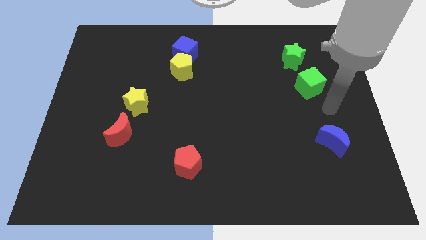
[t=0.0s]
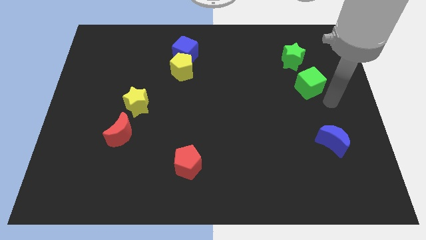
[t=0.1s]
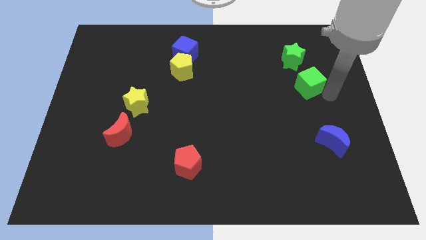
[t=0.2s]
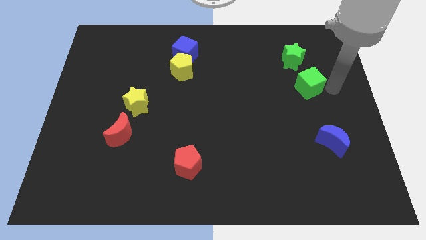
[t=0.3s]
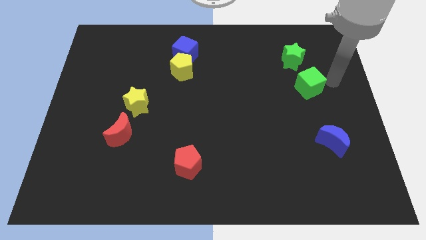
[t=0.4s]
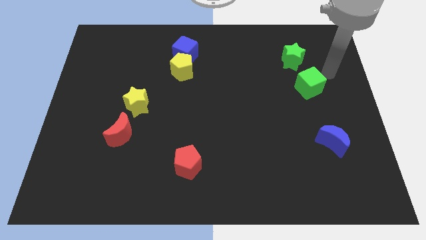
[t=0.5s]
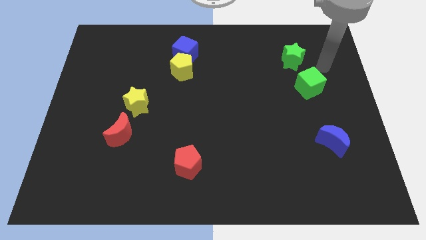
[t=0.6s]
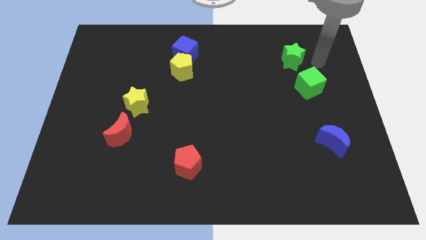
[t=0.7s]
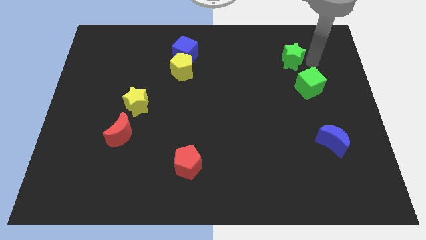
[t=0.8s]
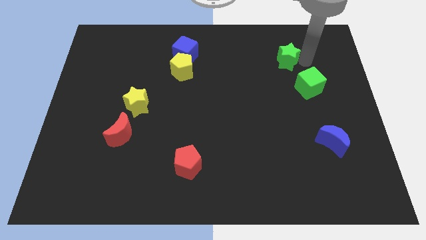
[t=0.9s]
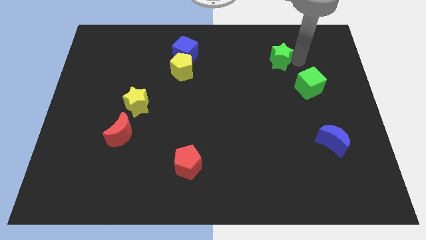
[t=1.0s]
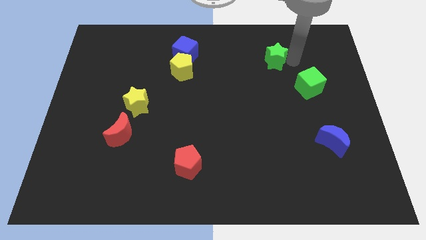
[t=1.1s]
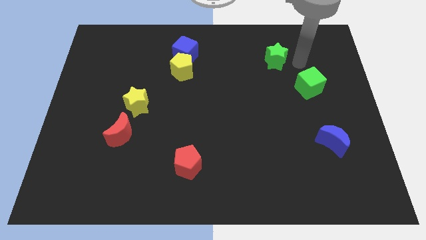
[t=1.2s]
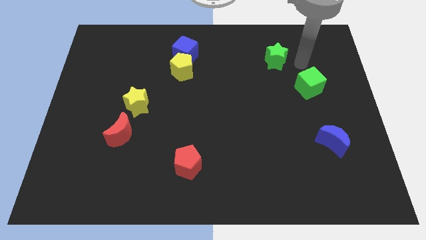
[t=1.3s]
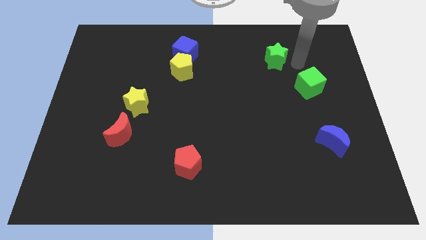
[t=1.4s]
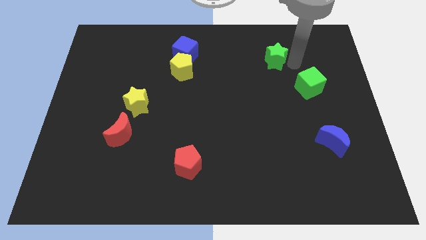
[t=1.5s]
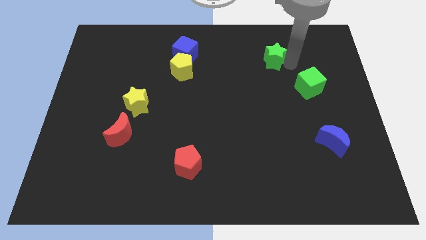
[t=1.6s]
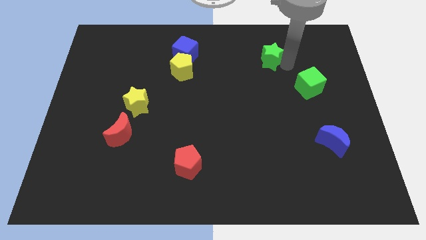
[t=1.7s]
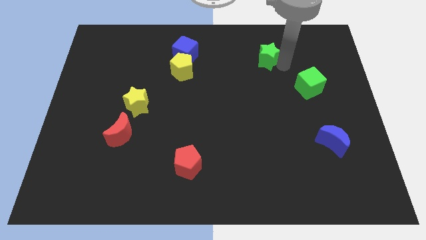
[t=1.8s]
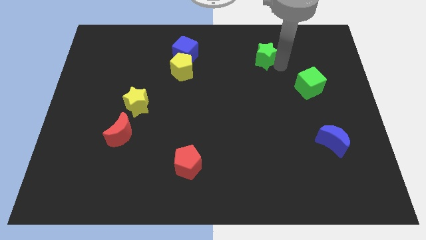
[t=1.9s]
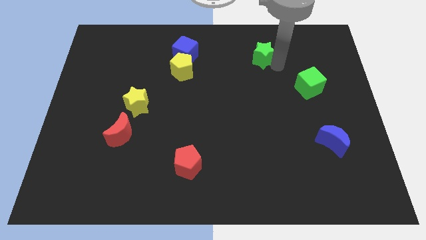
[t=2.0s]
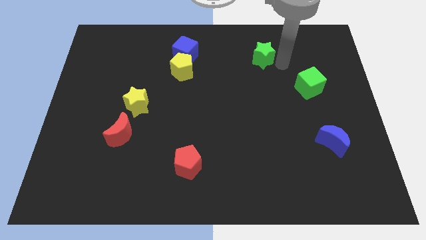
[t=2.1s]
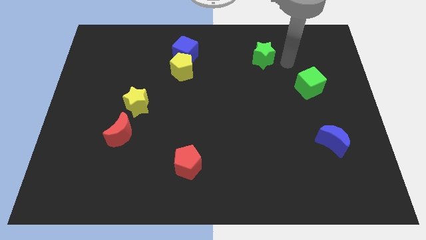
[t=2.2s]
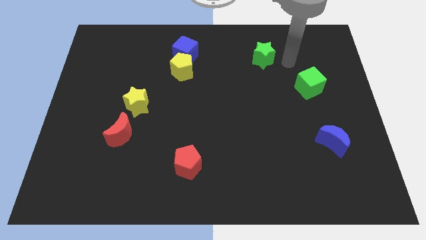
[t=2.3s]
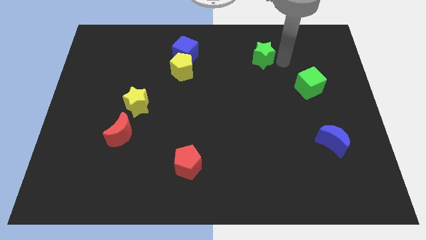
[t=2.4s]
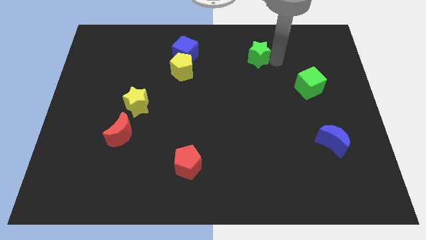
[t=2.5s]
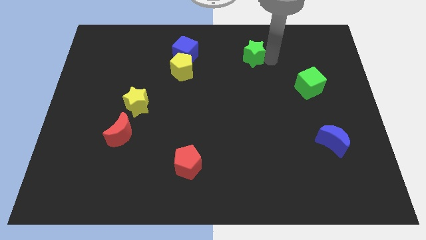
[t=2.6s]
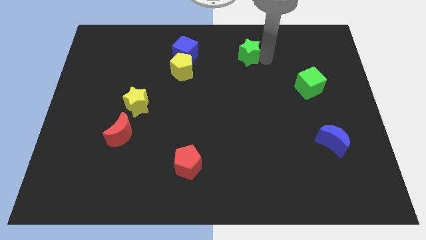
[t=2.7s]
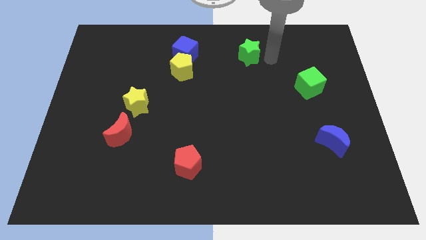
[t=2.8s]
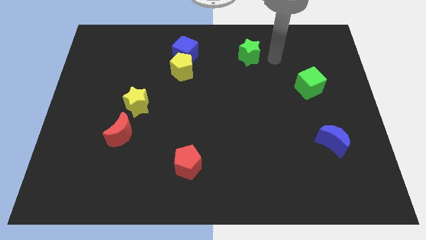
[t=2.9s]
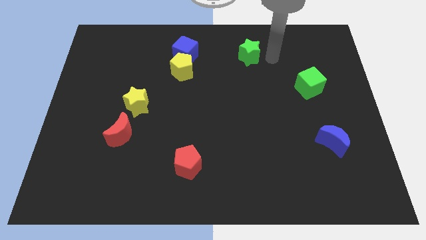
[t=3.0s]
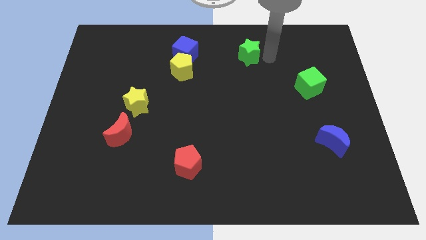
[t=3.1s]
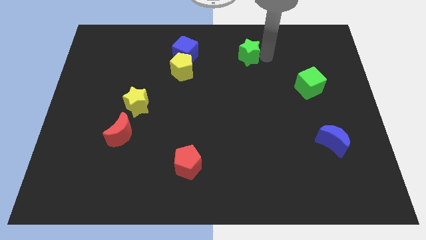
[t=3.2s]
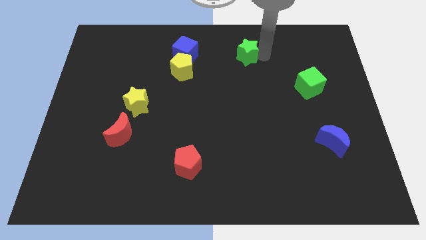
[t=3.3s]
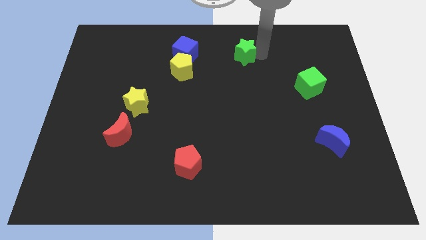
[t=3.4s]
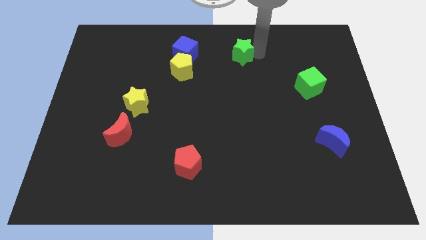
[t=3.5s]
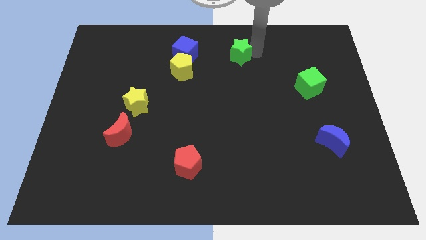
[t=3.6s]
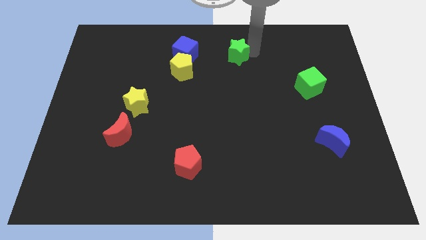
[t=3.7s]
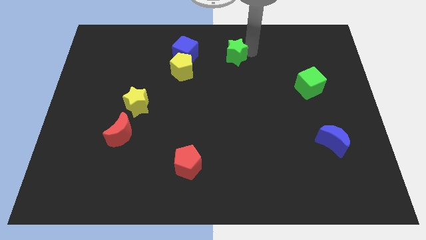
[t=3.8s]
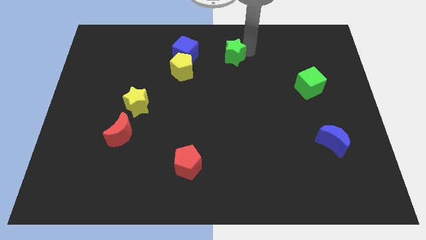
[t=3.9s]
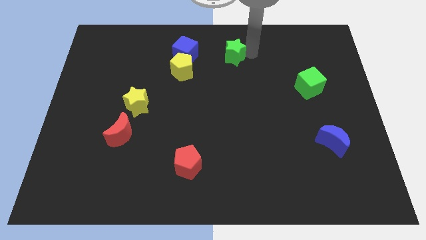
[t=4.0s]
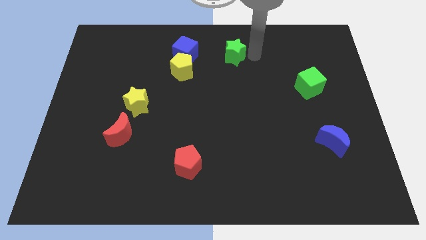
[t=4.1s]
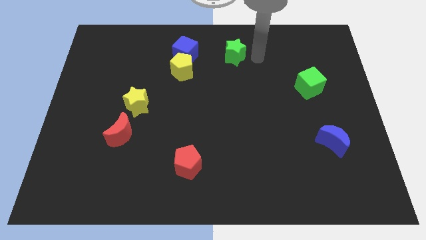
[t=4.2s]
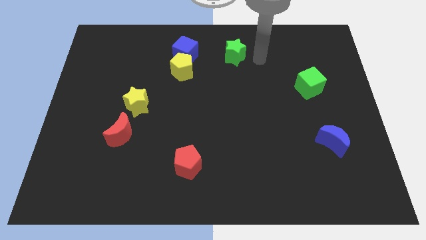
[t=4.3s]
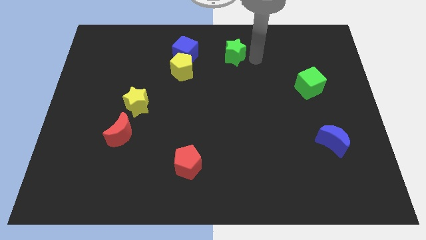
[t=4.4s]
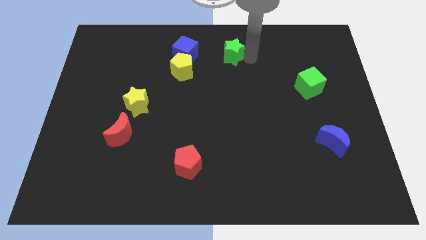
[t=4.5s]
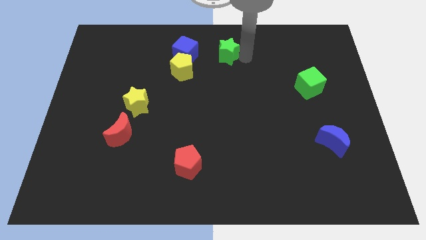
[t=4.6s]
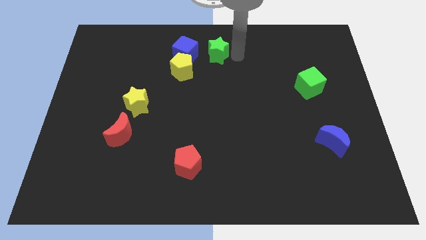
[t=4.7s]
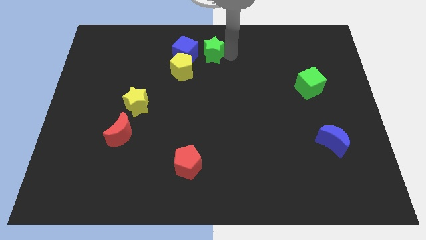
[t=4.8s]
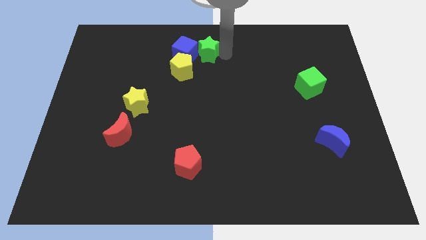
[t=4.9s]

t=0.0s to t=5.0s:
slide the green star to the blue cube

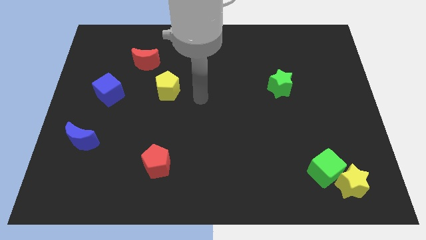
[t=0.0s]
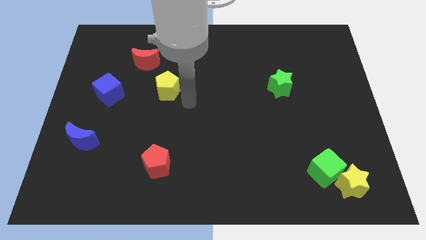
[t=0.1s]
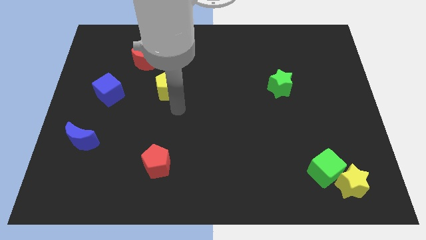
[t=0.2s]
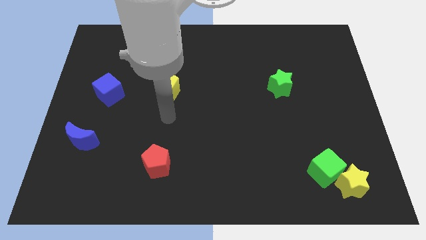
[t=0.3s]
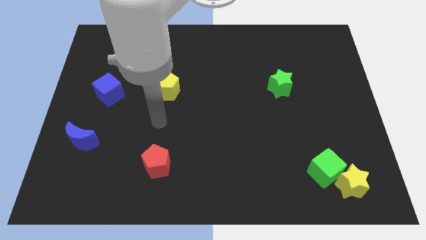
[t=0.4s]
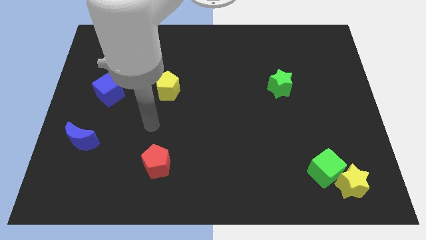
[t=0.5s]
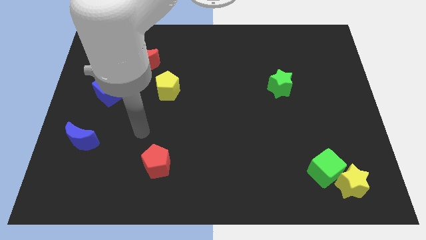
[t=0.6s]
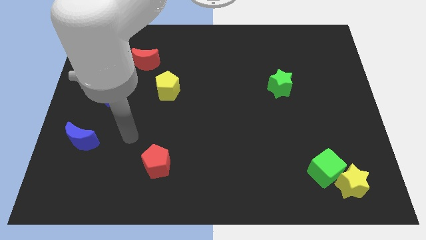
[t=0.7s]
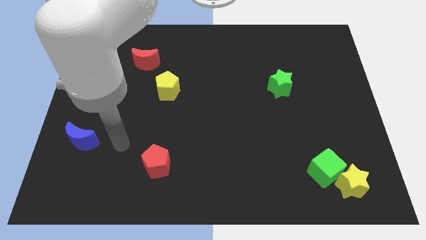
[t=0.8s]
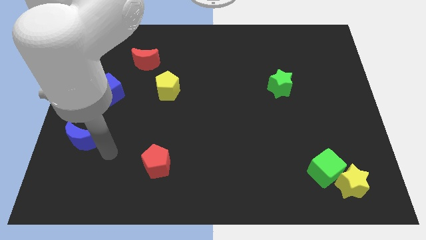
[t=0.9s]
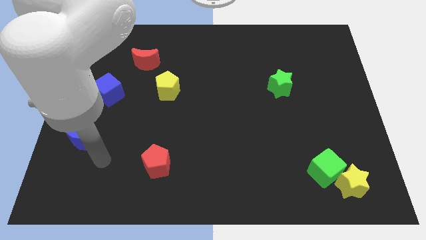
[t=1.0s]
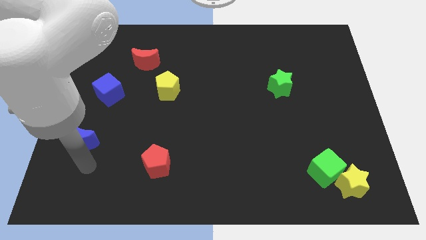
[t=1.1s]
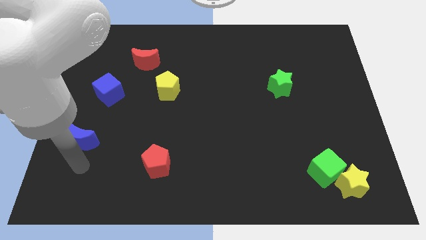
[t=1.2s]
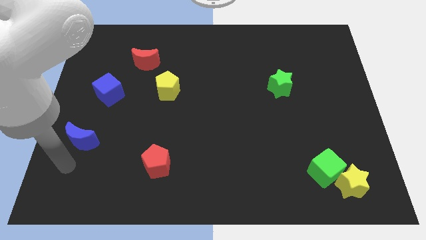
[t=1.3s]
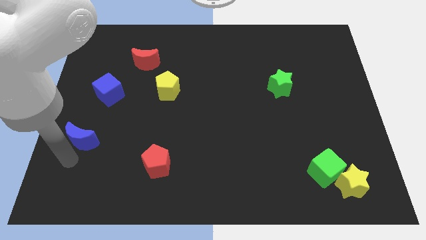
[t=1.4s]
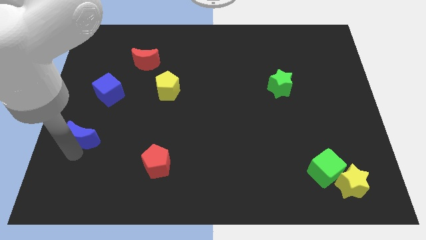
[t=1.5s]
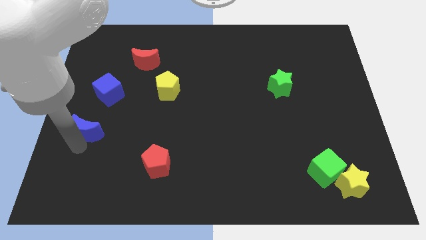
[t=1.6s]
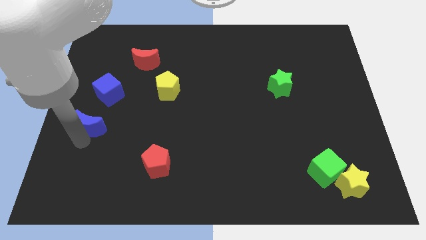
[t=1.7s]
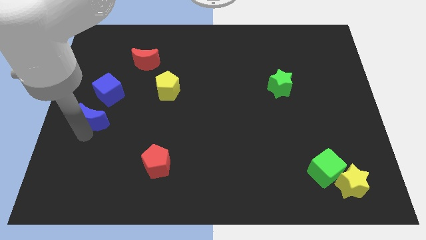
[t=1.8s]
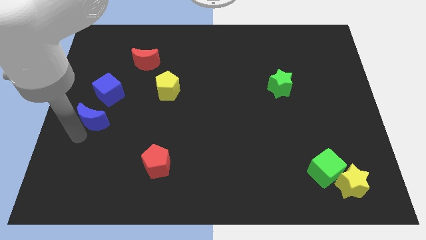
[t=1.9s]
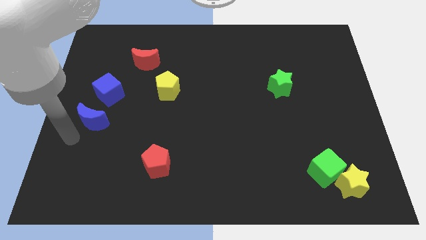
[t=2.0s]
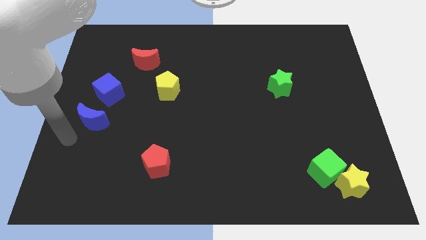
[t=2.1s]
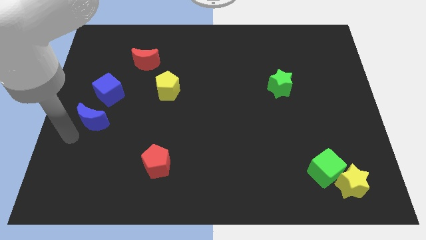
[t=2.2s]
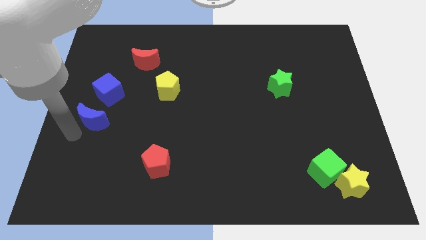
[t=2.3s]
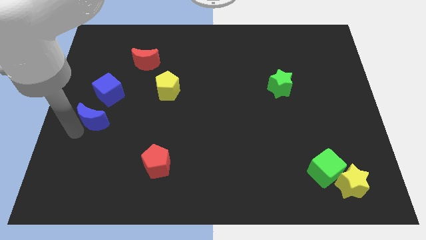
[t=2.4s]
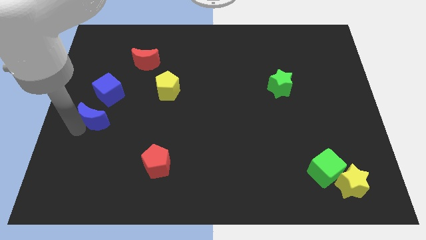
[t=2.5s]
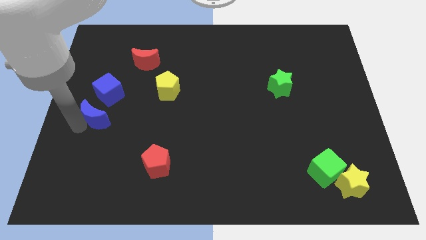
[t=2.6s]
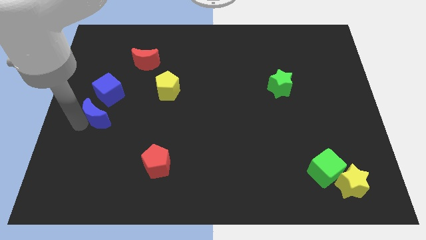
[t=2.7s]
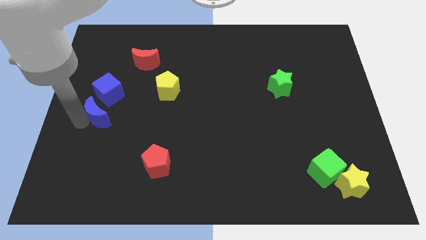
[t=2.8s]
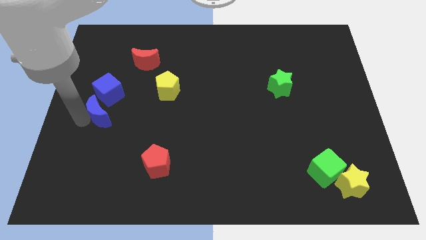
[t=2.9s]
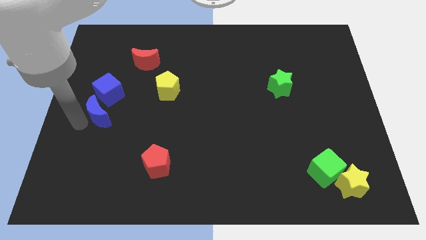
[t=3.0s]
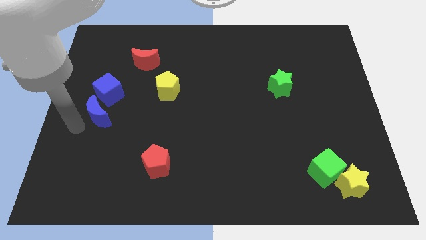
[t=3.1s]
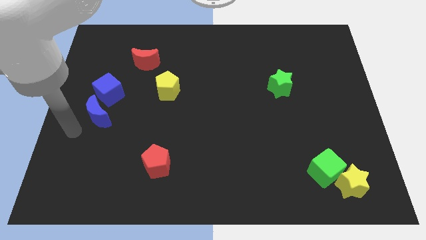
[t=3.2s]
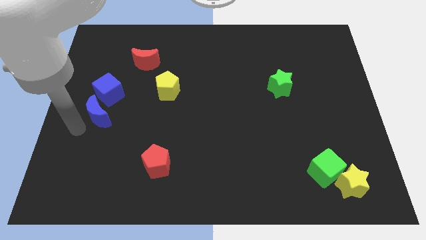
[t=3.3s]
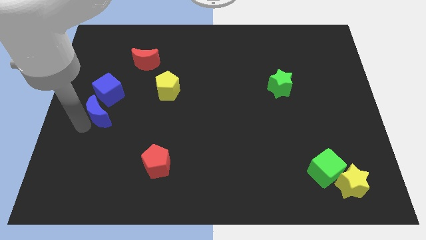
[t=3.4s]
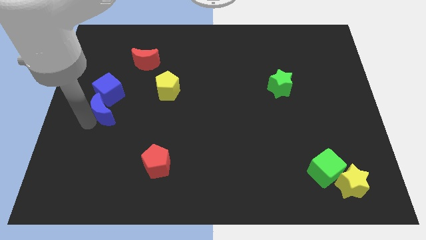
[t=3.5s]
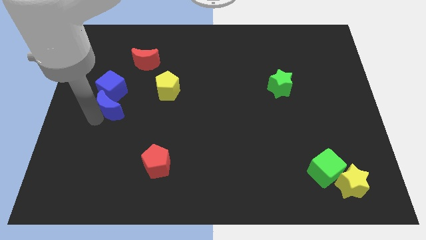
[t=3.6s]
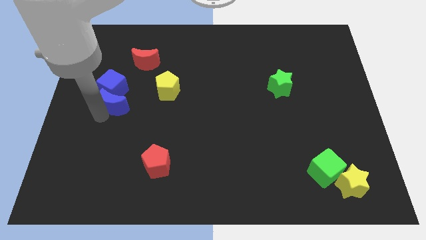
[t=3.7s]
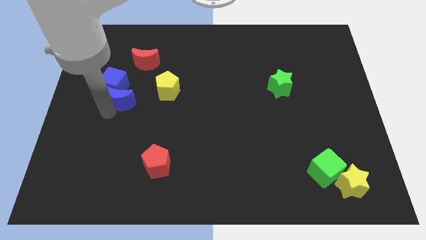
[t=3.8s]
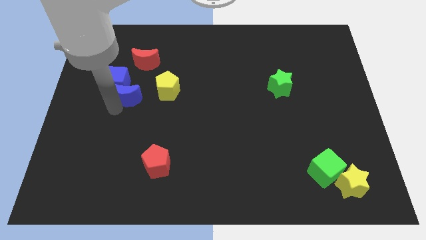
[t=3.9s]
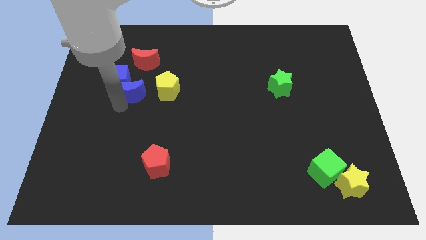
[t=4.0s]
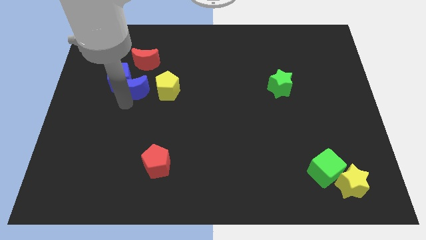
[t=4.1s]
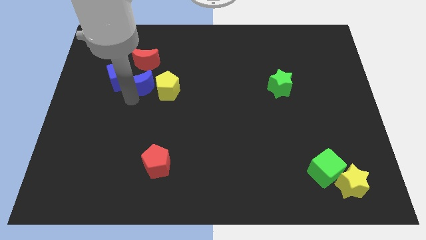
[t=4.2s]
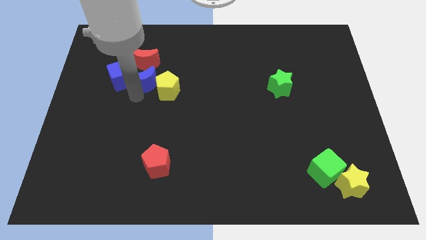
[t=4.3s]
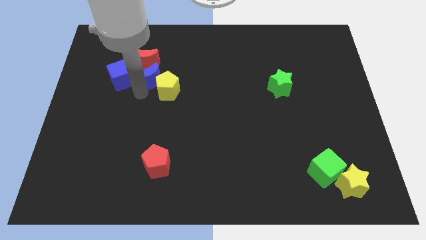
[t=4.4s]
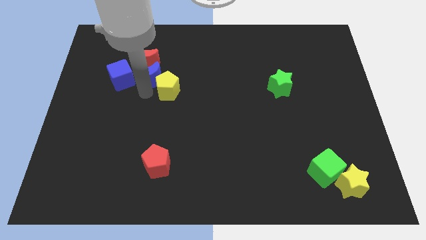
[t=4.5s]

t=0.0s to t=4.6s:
slide the blue moon to the red moon
